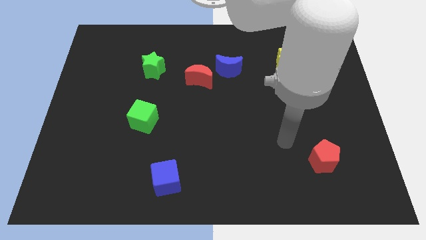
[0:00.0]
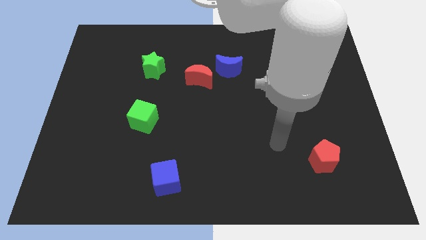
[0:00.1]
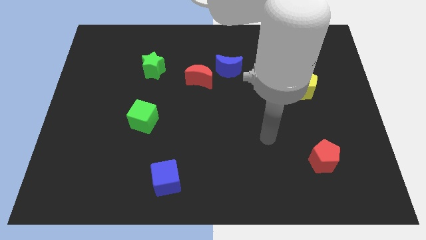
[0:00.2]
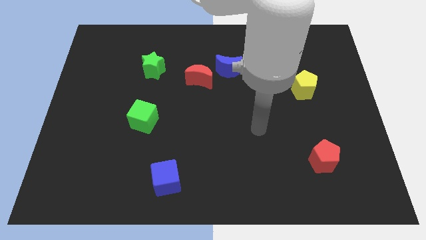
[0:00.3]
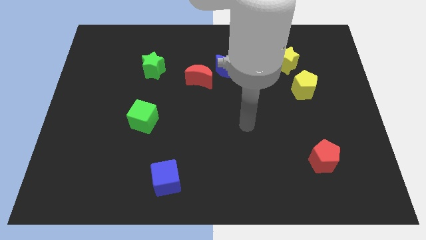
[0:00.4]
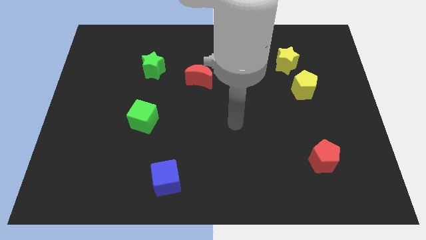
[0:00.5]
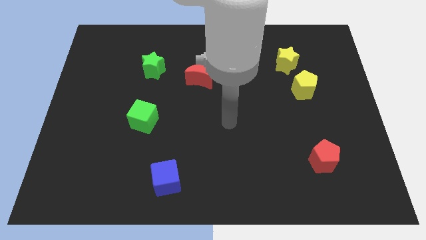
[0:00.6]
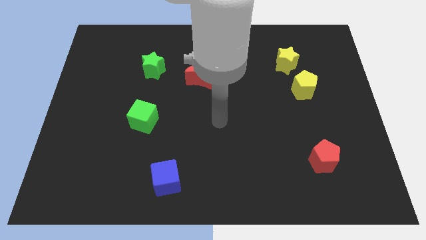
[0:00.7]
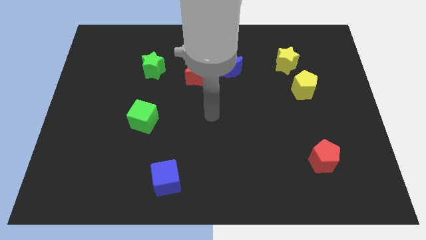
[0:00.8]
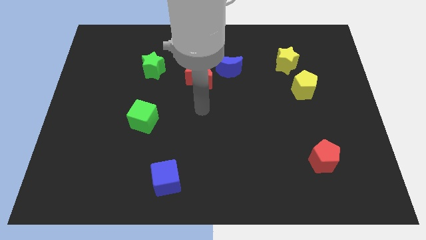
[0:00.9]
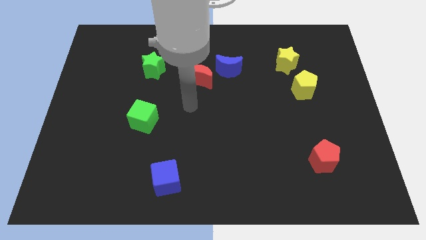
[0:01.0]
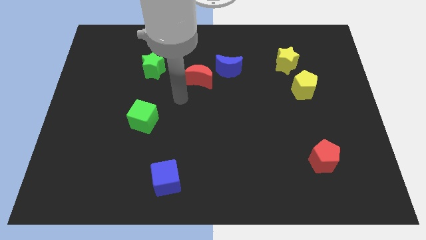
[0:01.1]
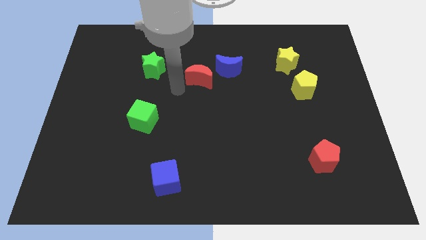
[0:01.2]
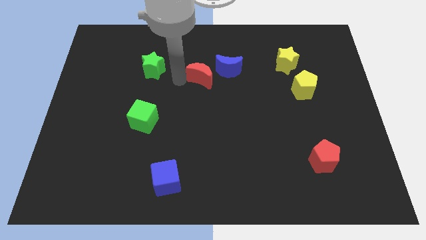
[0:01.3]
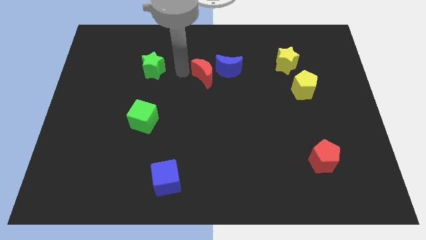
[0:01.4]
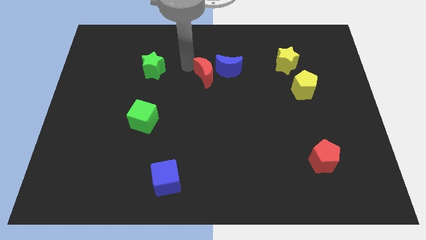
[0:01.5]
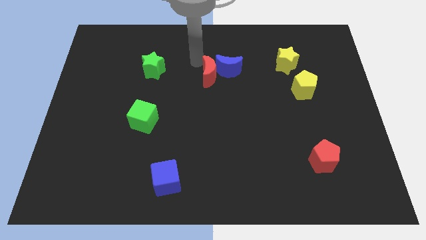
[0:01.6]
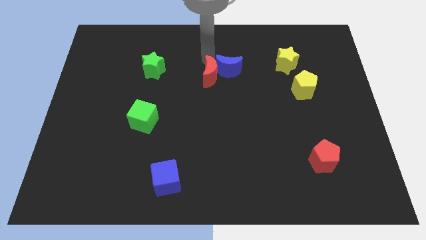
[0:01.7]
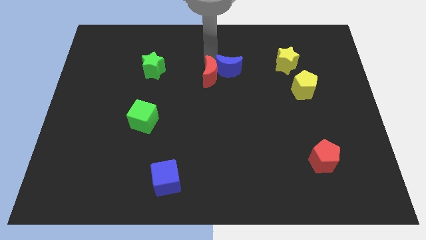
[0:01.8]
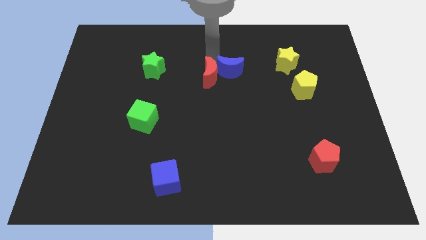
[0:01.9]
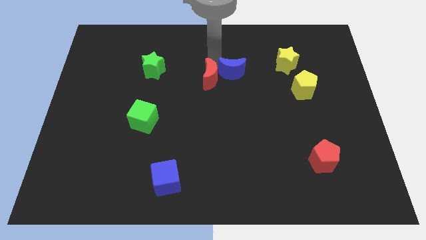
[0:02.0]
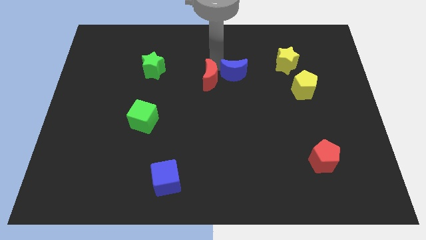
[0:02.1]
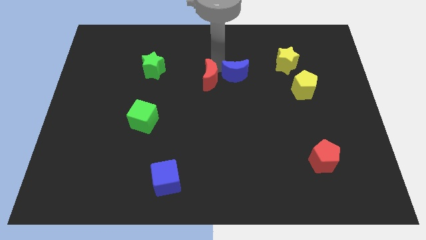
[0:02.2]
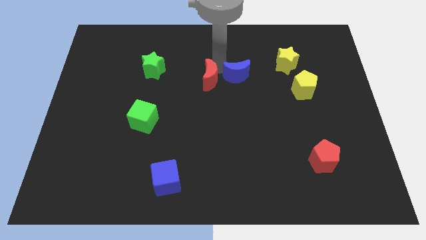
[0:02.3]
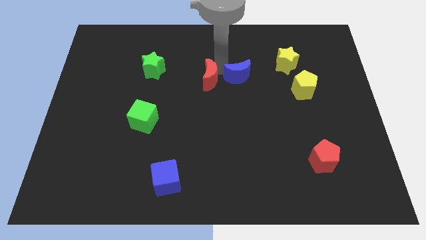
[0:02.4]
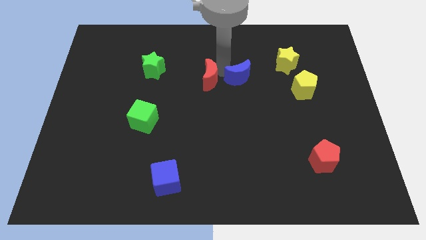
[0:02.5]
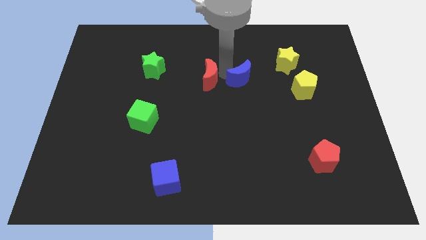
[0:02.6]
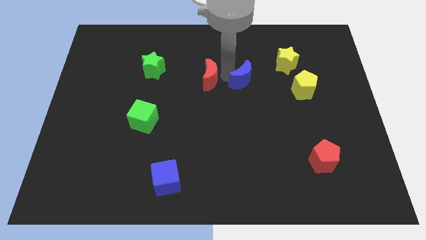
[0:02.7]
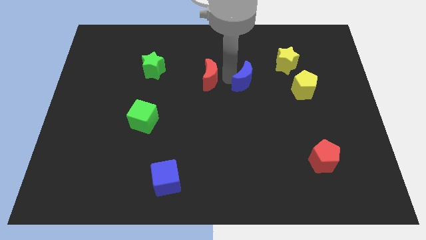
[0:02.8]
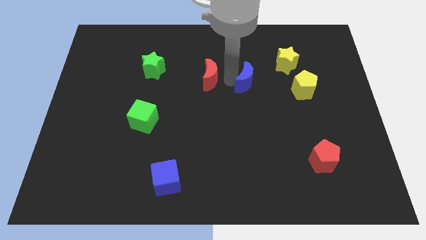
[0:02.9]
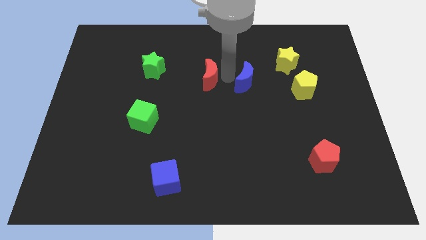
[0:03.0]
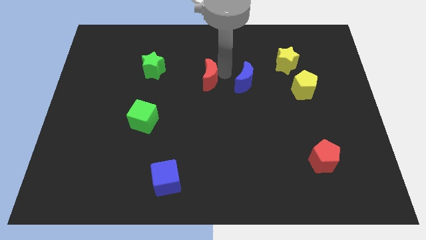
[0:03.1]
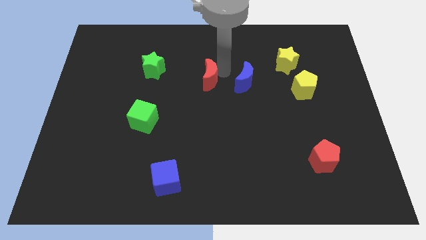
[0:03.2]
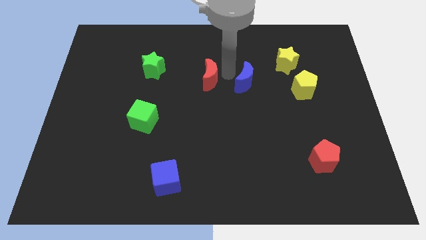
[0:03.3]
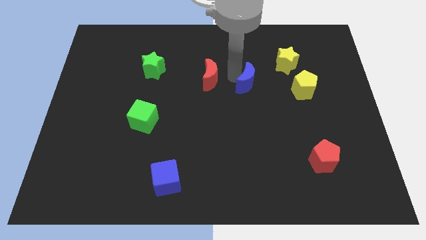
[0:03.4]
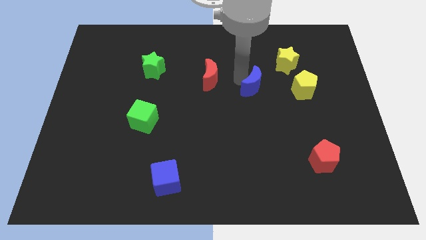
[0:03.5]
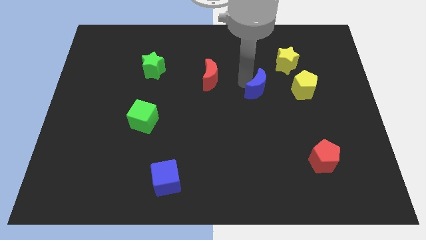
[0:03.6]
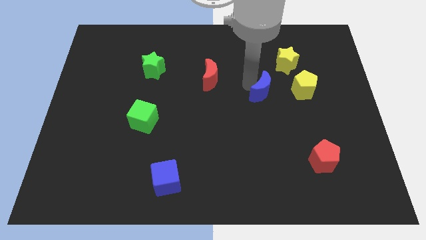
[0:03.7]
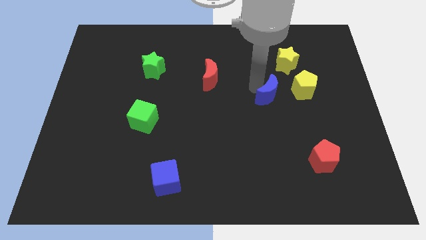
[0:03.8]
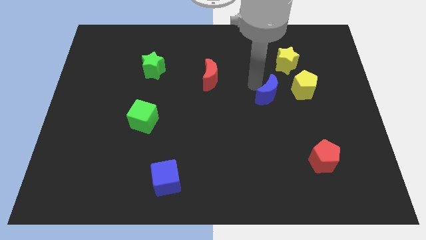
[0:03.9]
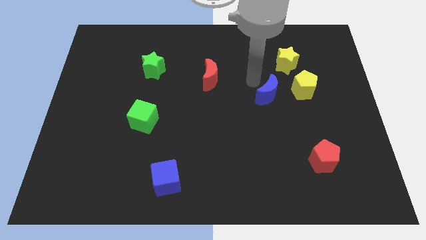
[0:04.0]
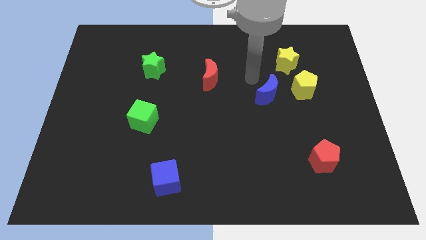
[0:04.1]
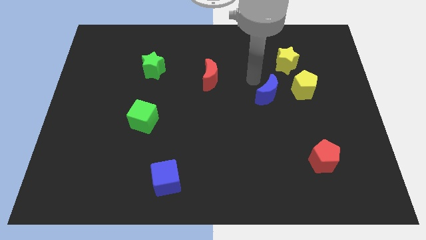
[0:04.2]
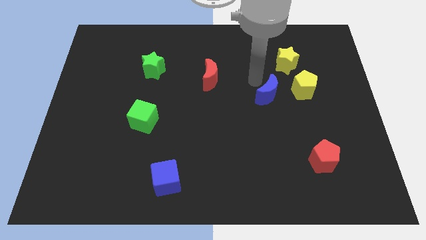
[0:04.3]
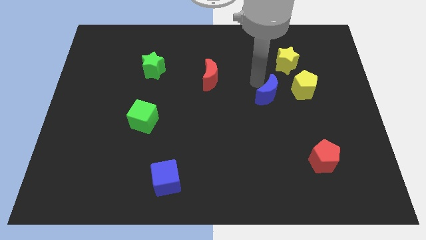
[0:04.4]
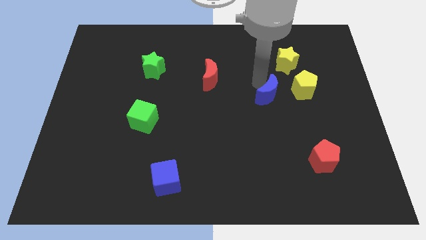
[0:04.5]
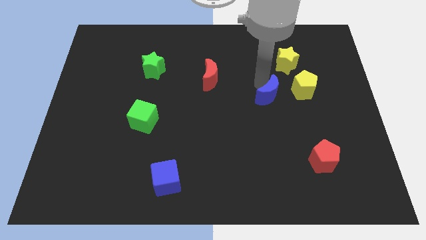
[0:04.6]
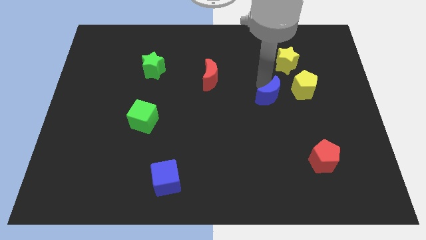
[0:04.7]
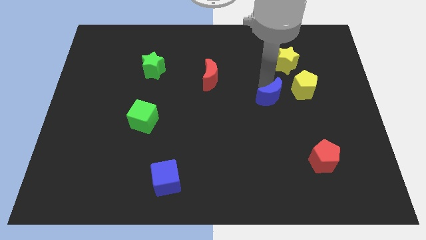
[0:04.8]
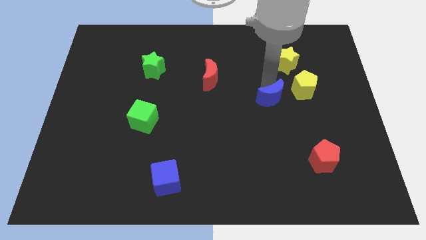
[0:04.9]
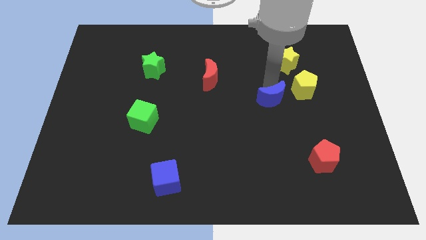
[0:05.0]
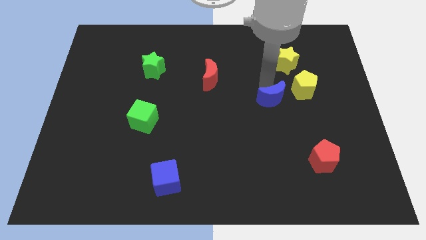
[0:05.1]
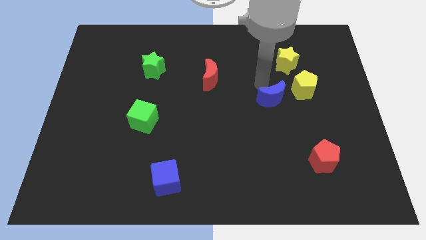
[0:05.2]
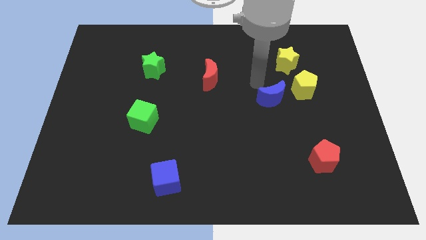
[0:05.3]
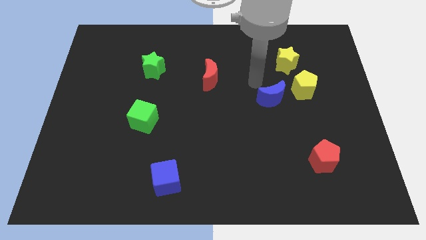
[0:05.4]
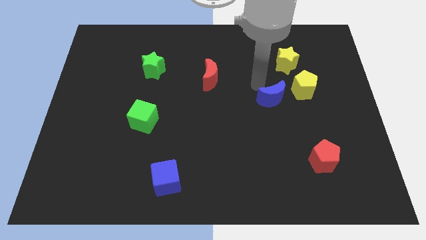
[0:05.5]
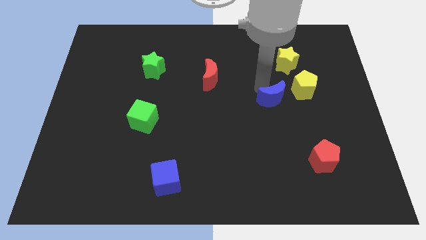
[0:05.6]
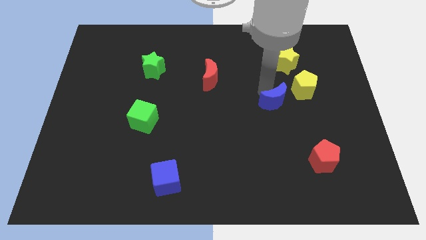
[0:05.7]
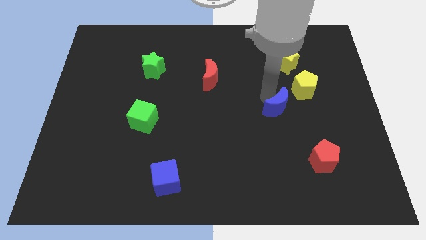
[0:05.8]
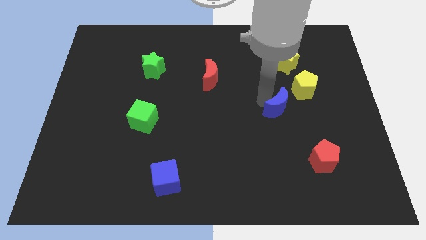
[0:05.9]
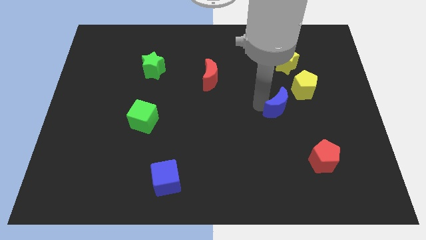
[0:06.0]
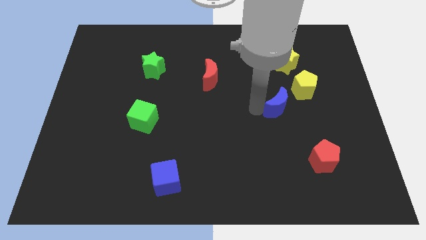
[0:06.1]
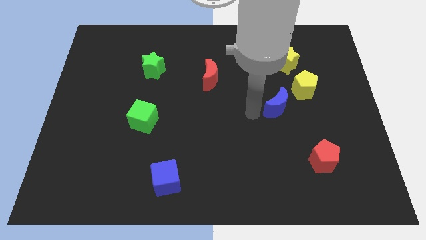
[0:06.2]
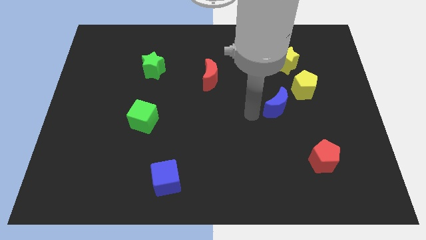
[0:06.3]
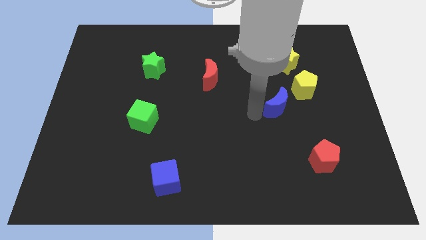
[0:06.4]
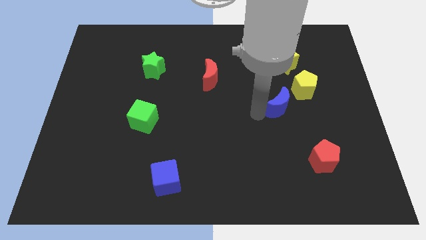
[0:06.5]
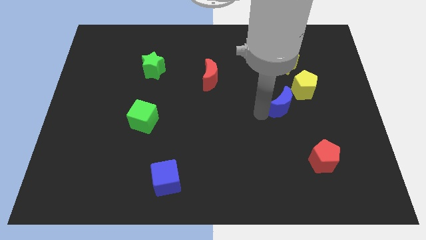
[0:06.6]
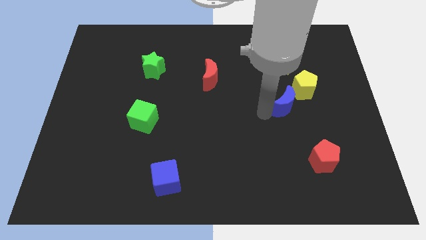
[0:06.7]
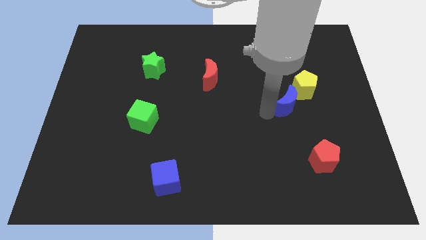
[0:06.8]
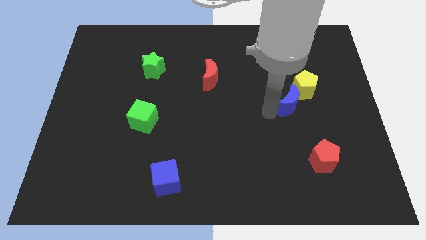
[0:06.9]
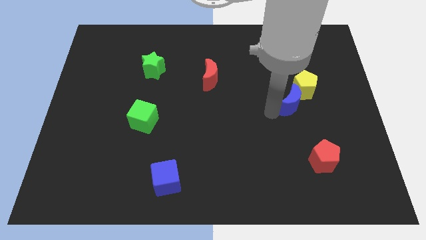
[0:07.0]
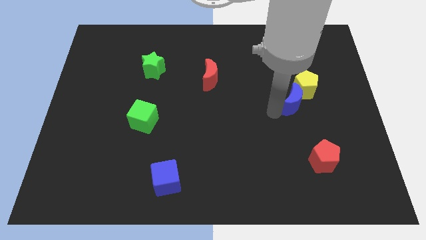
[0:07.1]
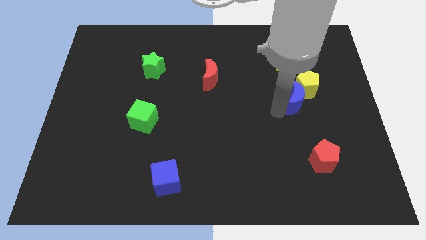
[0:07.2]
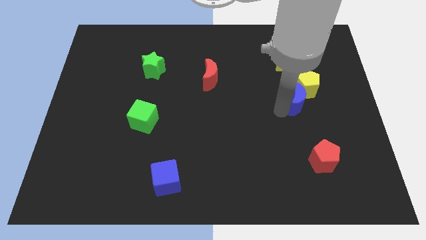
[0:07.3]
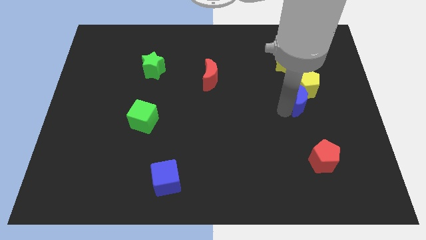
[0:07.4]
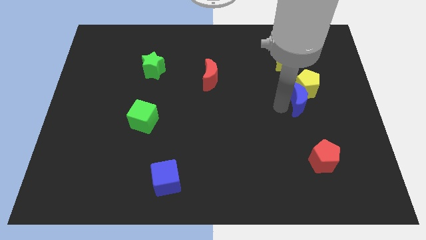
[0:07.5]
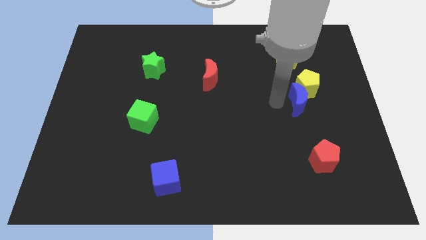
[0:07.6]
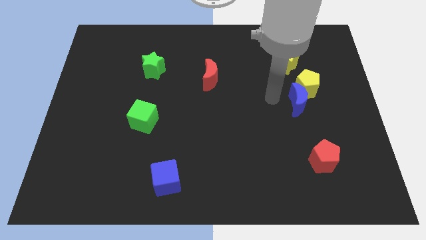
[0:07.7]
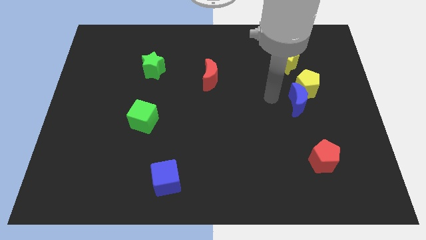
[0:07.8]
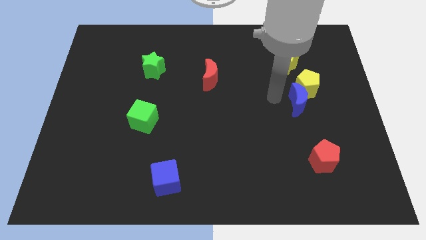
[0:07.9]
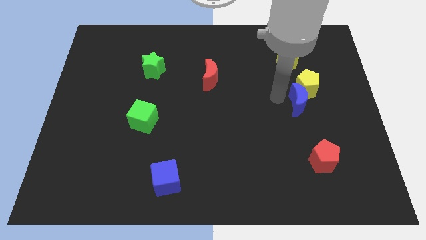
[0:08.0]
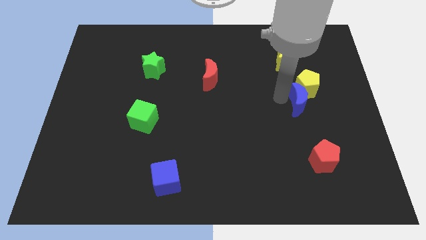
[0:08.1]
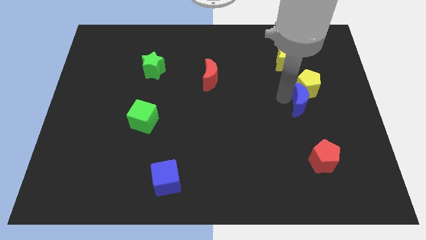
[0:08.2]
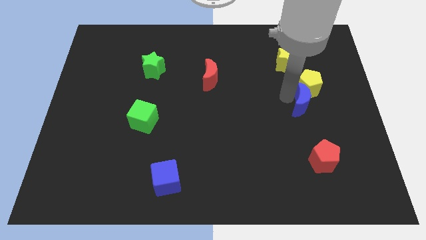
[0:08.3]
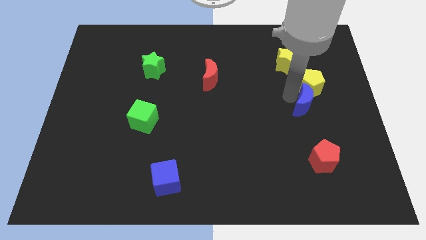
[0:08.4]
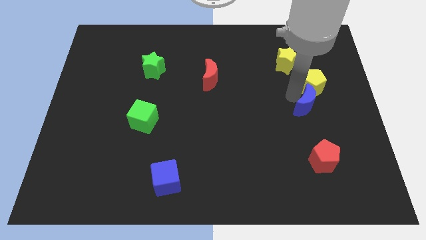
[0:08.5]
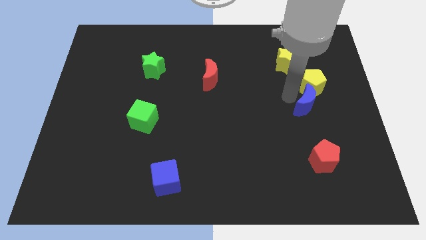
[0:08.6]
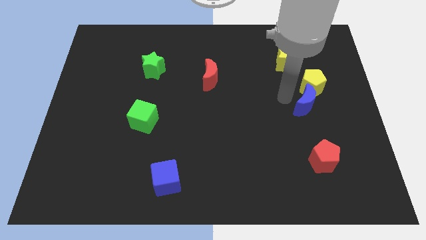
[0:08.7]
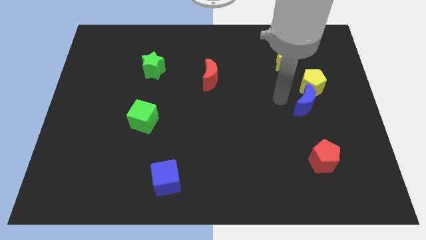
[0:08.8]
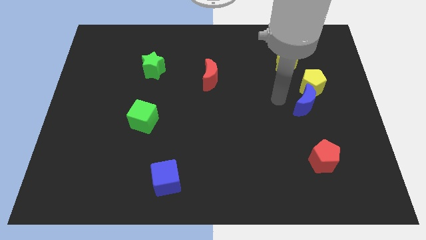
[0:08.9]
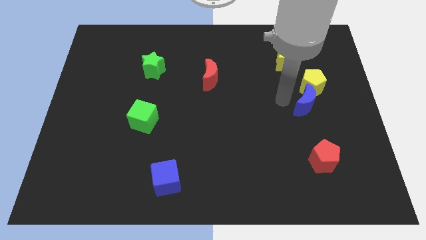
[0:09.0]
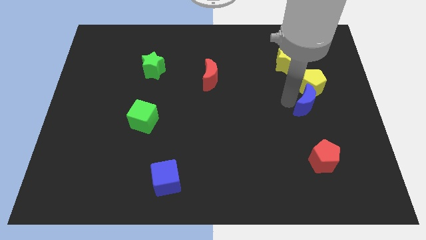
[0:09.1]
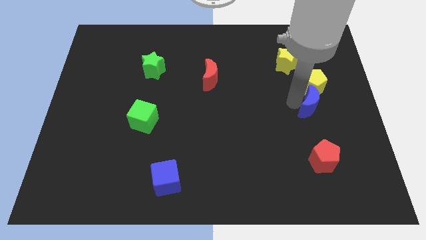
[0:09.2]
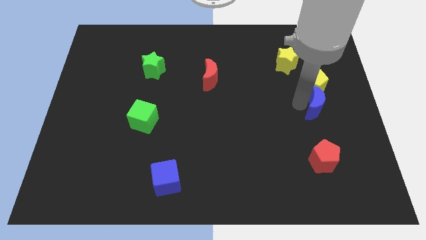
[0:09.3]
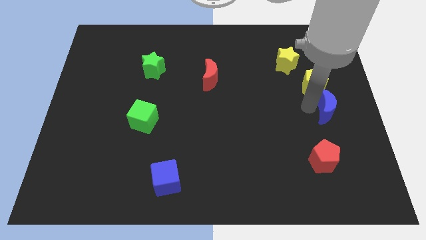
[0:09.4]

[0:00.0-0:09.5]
push the blue moon to the right side of the board
